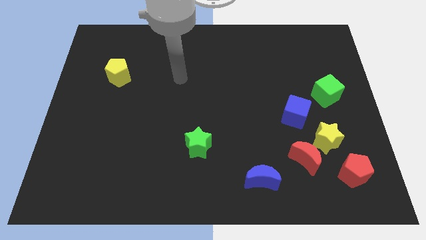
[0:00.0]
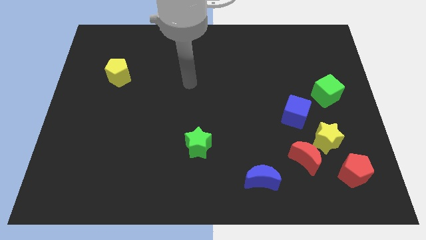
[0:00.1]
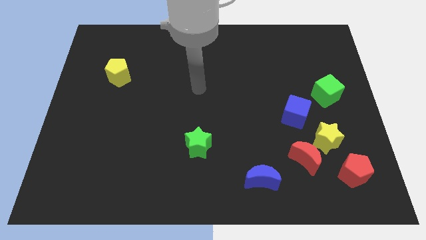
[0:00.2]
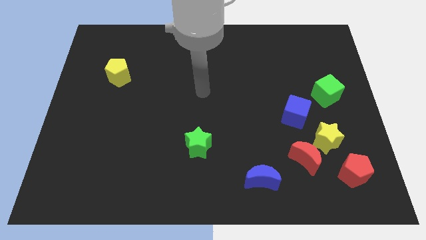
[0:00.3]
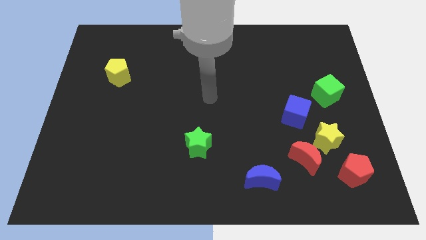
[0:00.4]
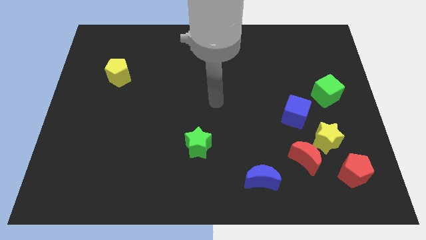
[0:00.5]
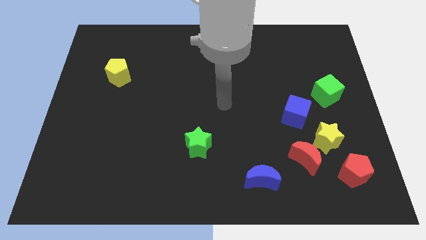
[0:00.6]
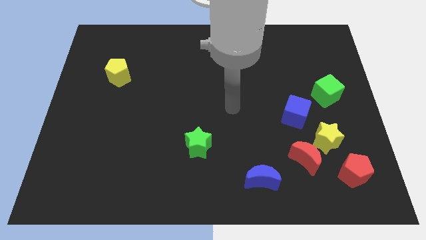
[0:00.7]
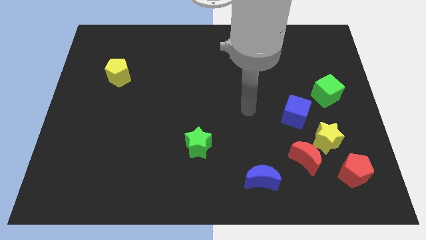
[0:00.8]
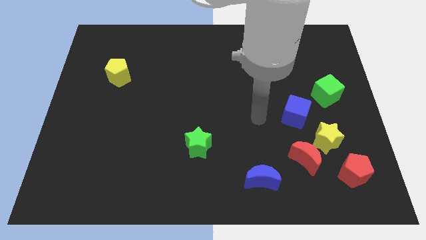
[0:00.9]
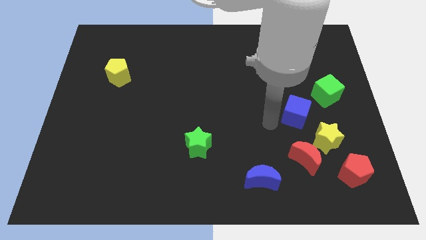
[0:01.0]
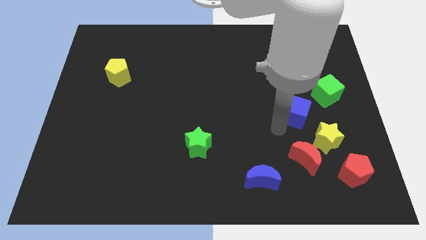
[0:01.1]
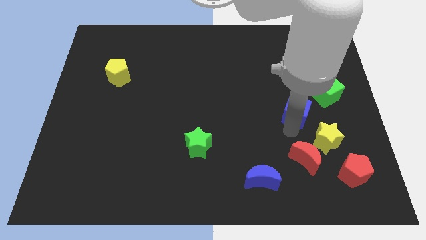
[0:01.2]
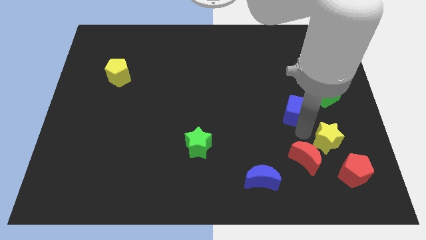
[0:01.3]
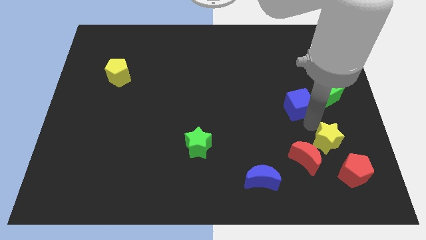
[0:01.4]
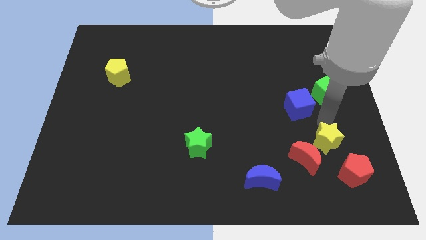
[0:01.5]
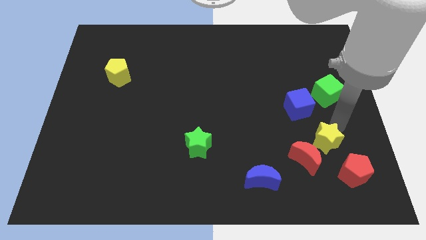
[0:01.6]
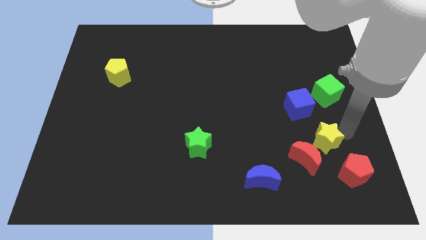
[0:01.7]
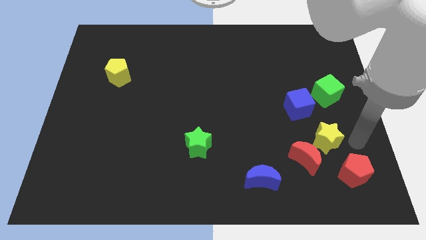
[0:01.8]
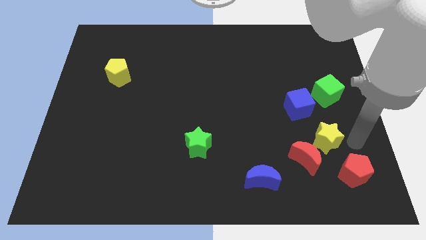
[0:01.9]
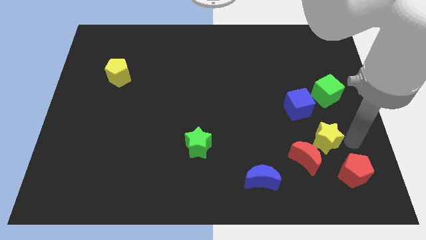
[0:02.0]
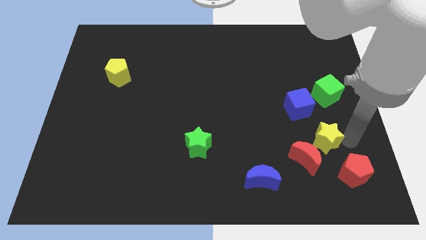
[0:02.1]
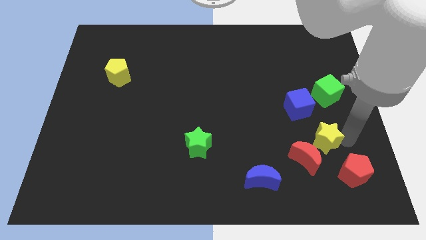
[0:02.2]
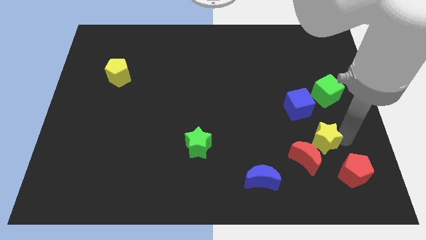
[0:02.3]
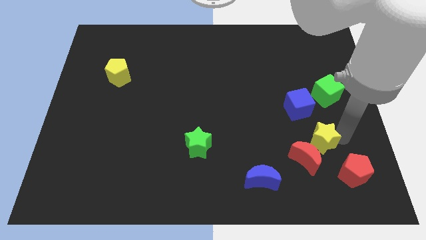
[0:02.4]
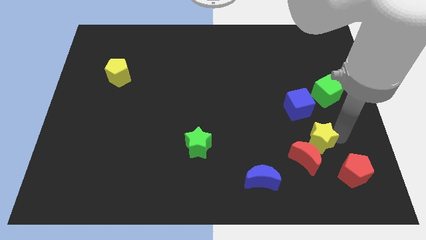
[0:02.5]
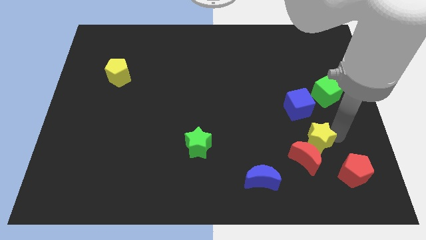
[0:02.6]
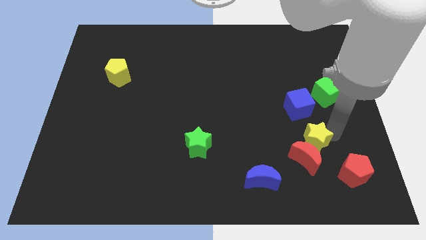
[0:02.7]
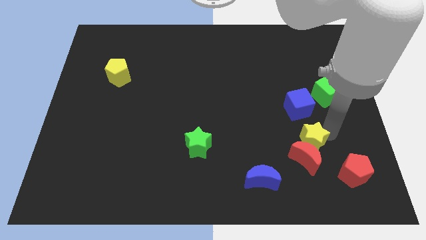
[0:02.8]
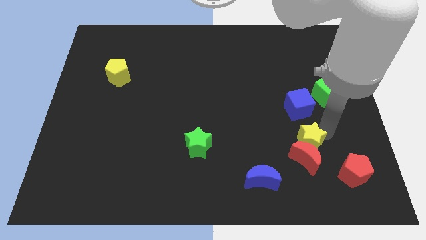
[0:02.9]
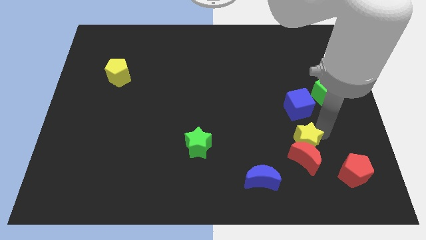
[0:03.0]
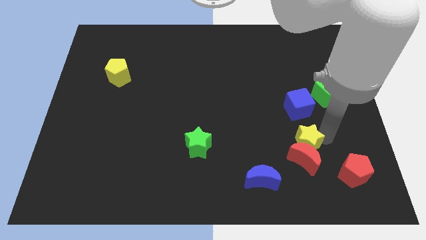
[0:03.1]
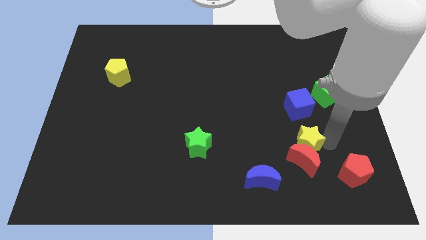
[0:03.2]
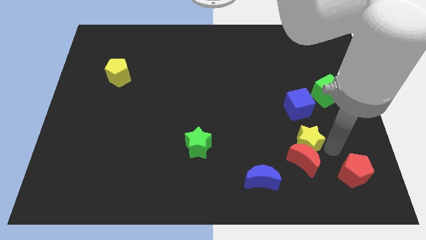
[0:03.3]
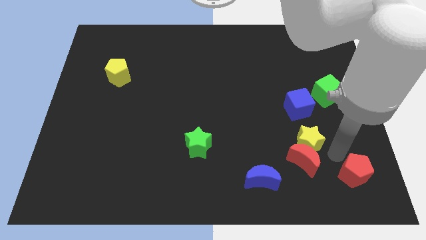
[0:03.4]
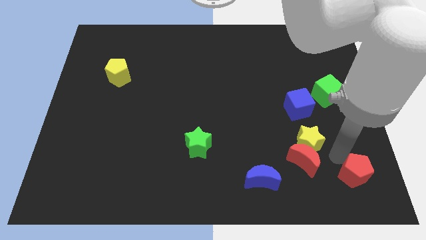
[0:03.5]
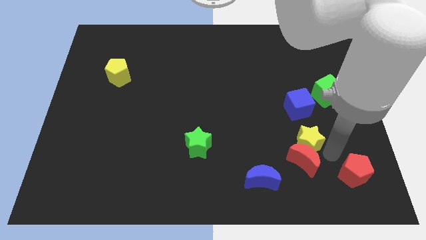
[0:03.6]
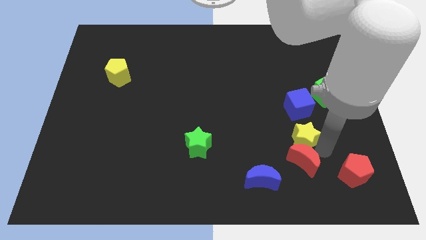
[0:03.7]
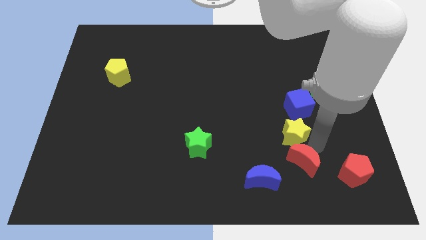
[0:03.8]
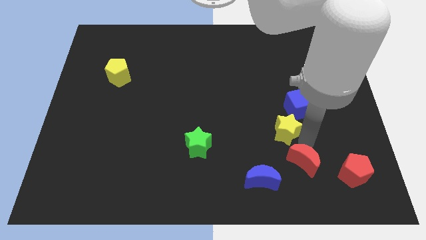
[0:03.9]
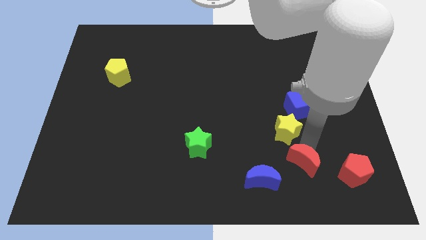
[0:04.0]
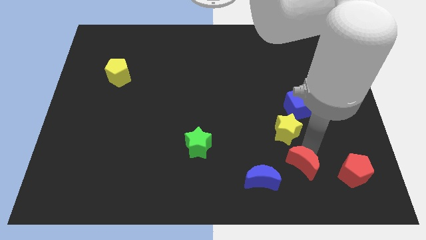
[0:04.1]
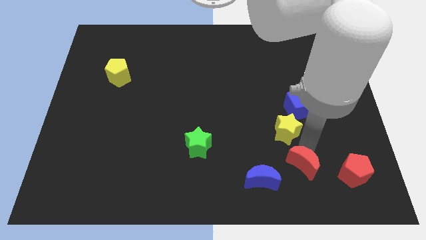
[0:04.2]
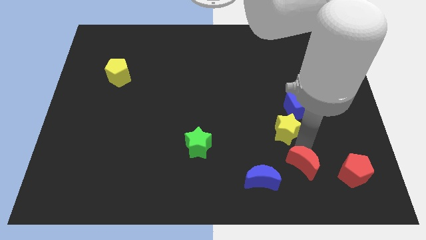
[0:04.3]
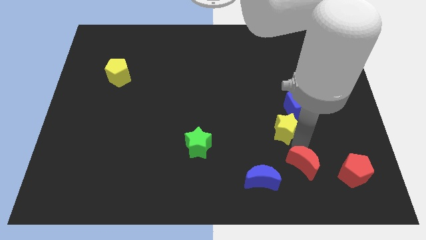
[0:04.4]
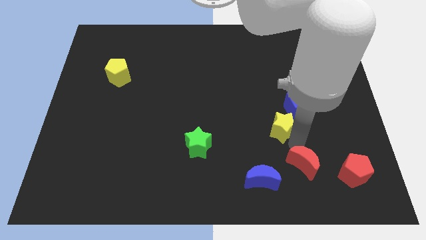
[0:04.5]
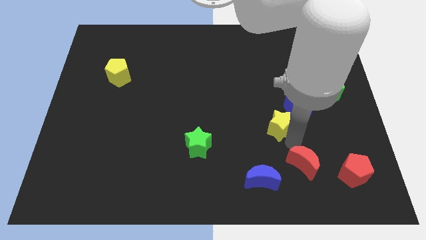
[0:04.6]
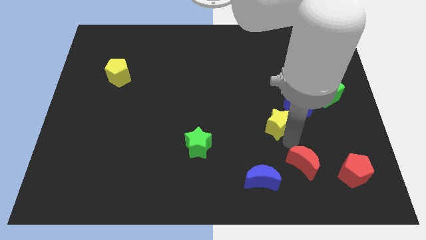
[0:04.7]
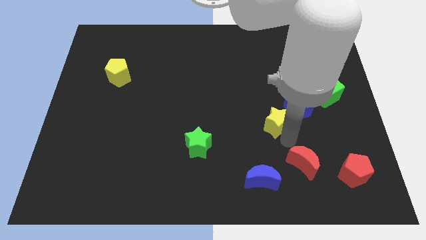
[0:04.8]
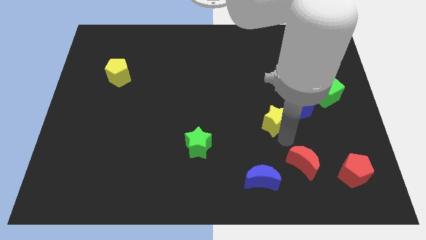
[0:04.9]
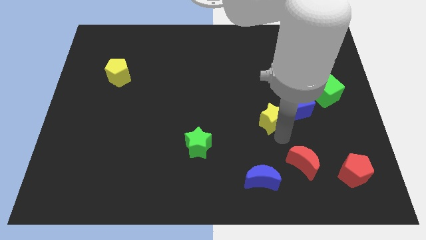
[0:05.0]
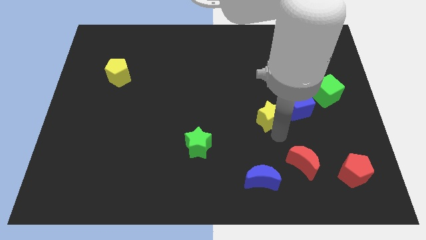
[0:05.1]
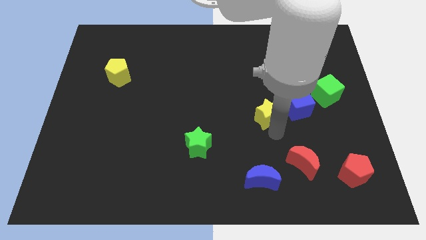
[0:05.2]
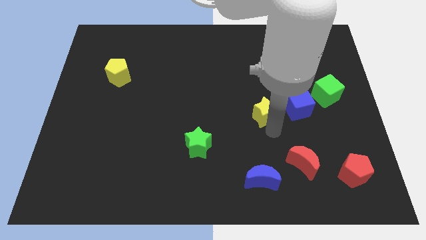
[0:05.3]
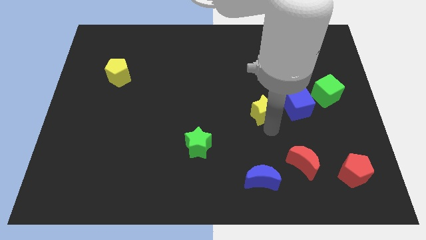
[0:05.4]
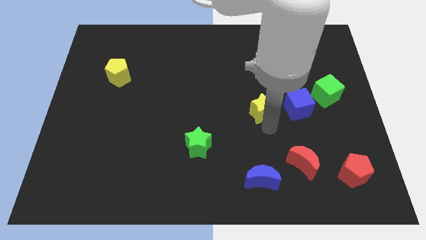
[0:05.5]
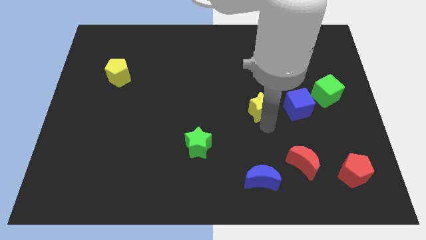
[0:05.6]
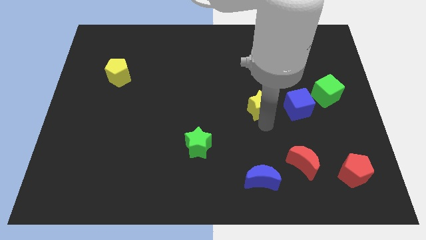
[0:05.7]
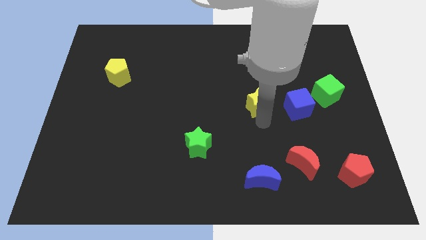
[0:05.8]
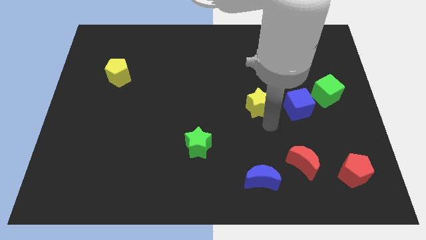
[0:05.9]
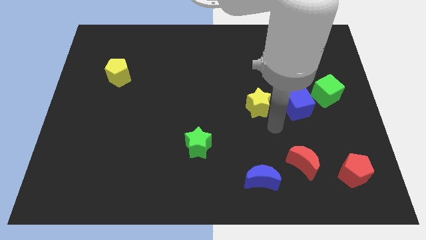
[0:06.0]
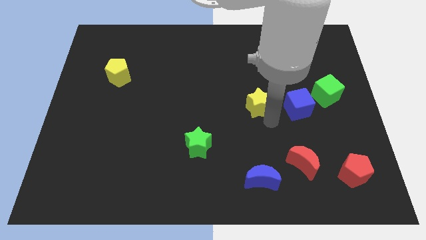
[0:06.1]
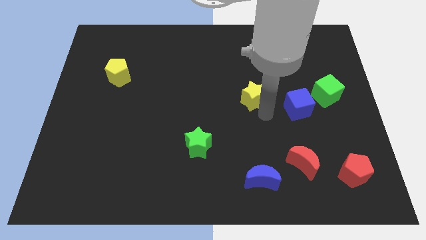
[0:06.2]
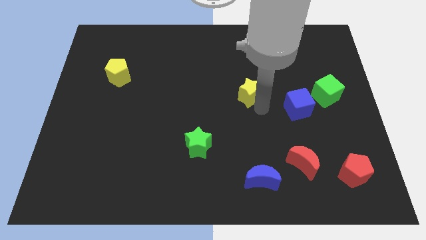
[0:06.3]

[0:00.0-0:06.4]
move the yellow star up and left

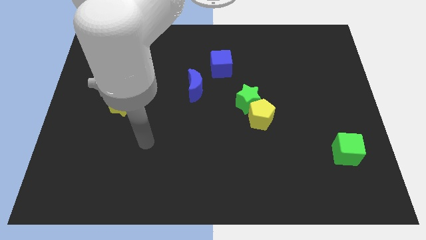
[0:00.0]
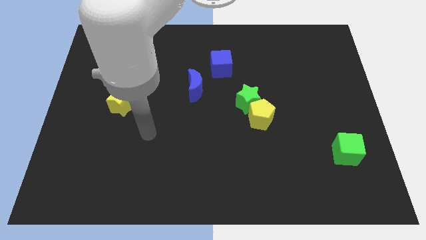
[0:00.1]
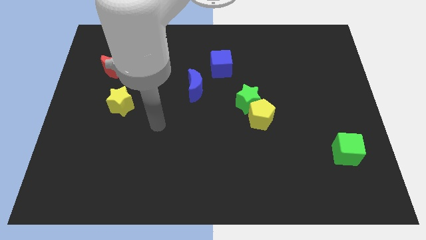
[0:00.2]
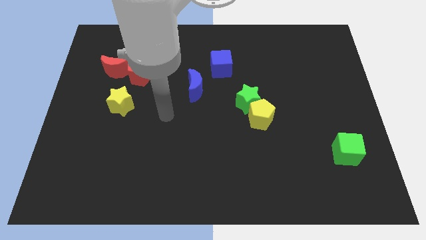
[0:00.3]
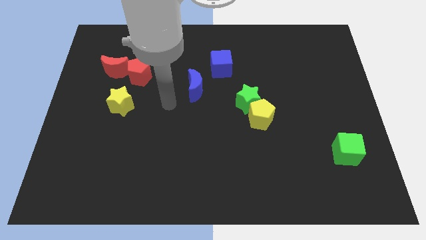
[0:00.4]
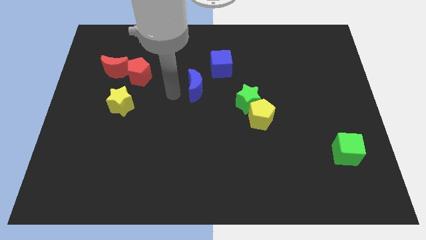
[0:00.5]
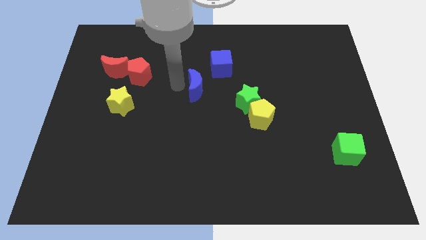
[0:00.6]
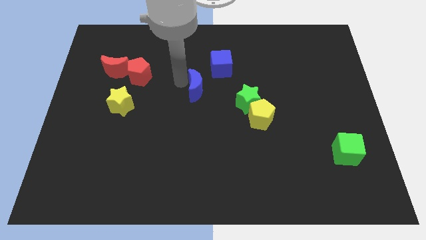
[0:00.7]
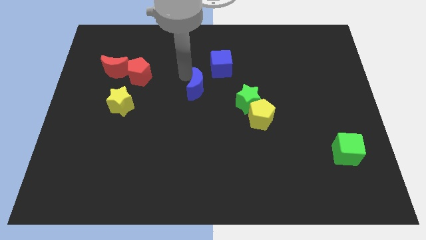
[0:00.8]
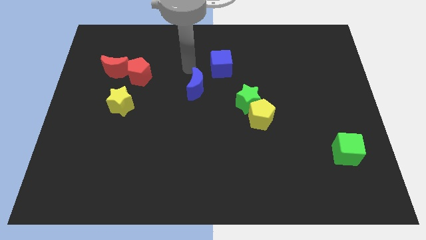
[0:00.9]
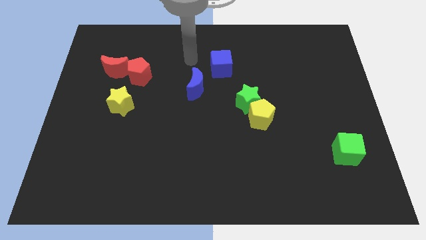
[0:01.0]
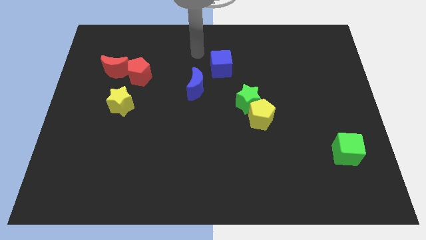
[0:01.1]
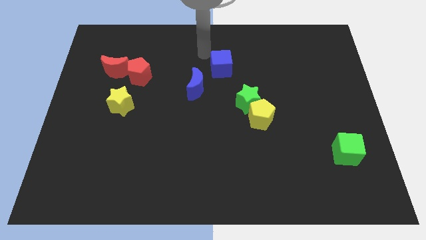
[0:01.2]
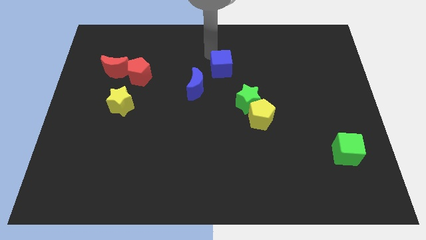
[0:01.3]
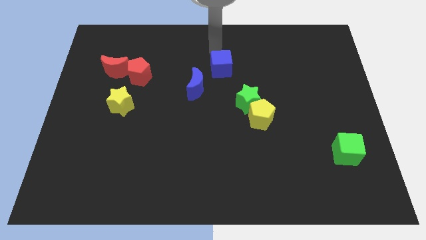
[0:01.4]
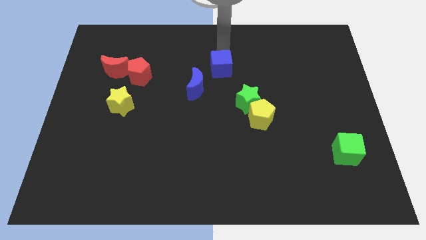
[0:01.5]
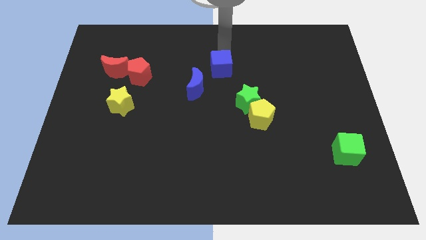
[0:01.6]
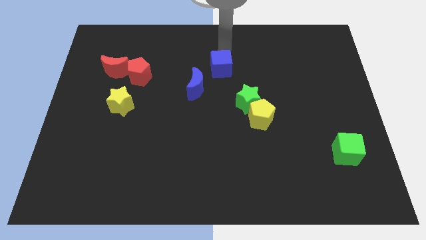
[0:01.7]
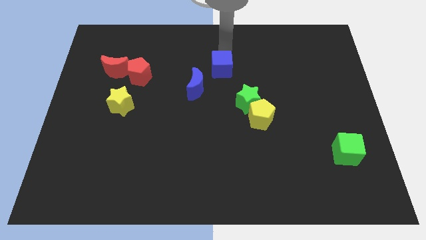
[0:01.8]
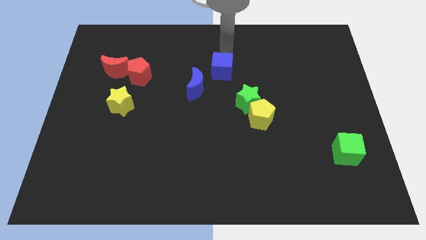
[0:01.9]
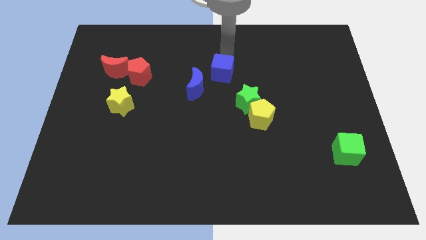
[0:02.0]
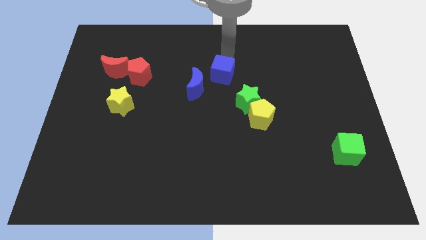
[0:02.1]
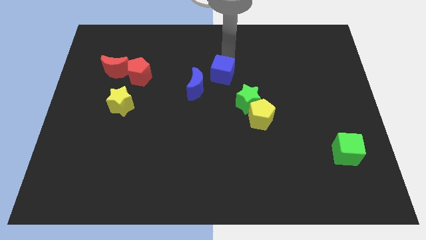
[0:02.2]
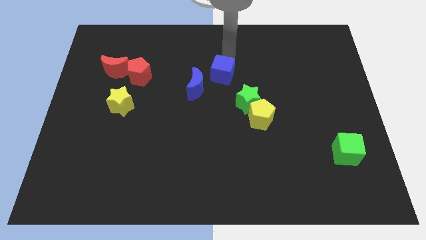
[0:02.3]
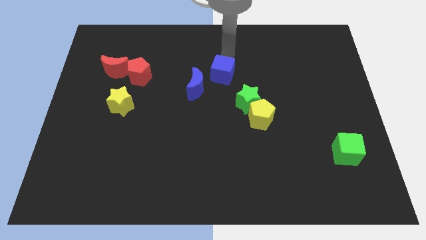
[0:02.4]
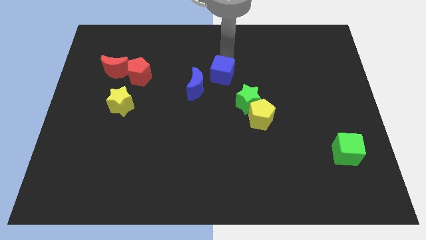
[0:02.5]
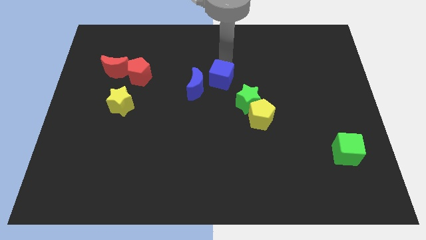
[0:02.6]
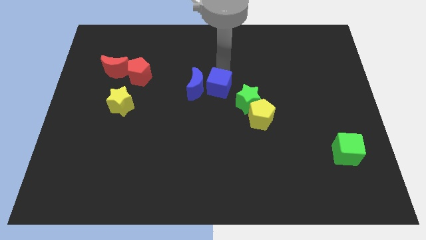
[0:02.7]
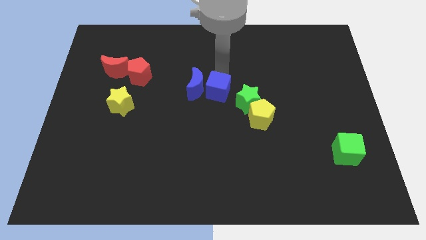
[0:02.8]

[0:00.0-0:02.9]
slide the blue cube downwards a bit
